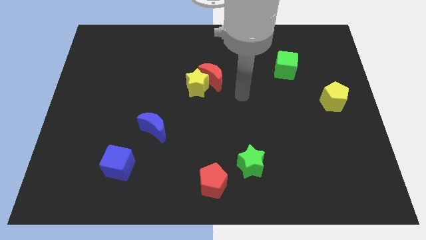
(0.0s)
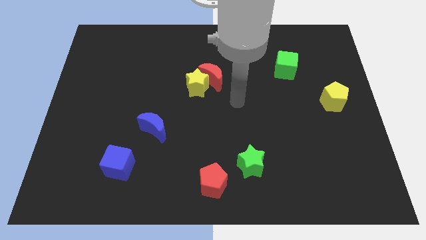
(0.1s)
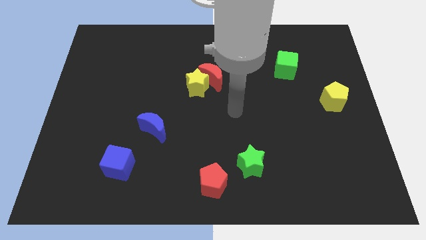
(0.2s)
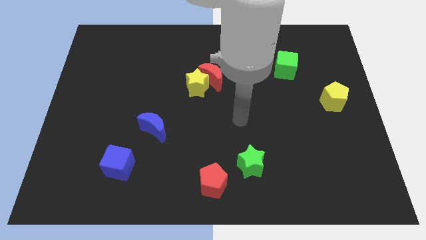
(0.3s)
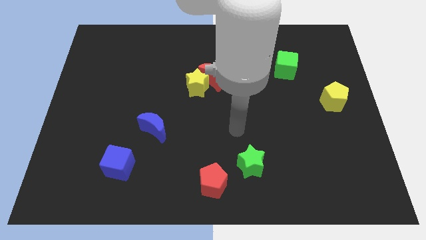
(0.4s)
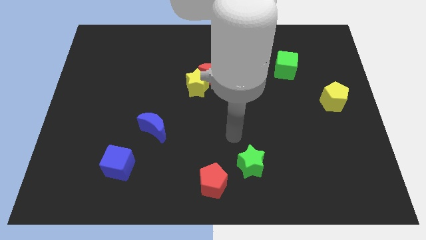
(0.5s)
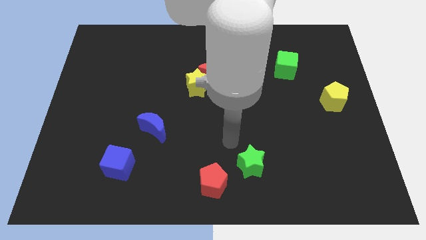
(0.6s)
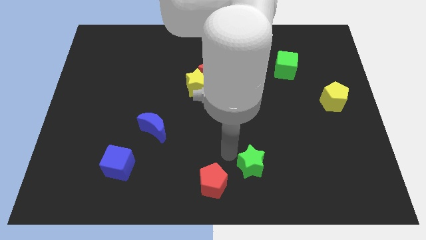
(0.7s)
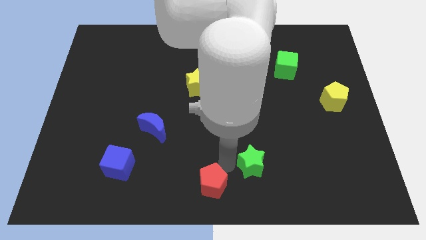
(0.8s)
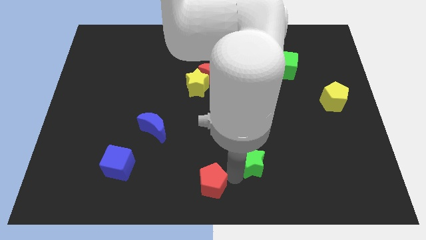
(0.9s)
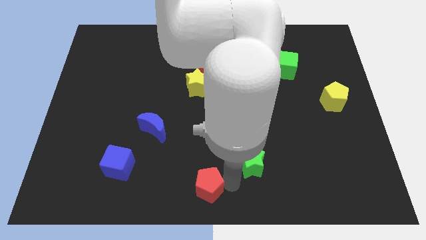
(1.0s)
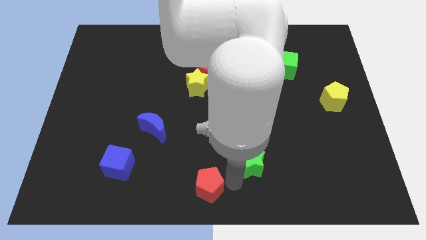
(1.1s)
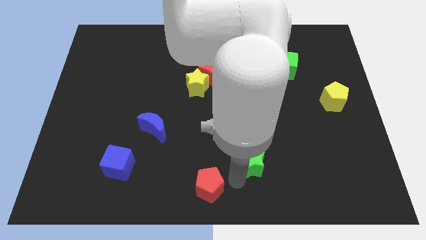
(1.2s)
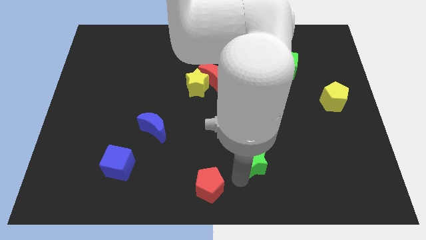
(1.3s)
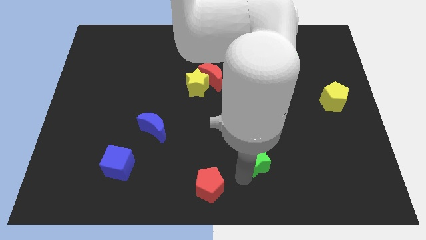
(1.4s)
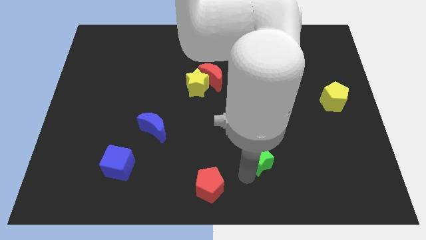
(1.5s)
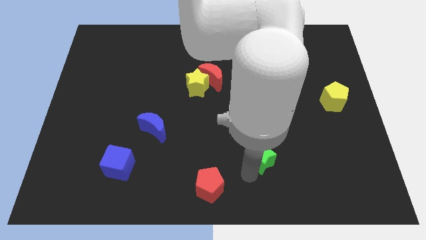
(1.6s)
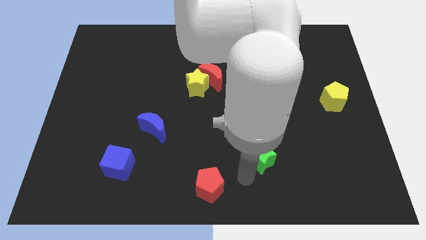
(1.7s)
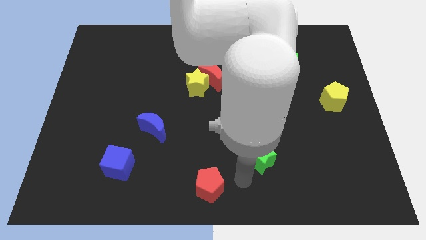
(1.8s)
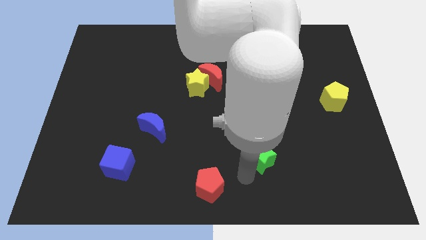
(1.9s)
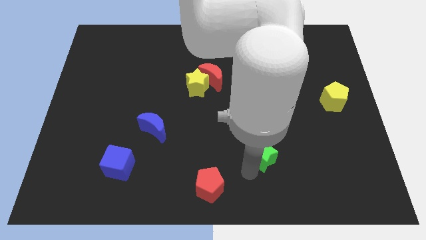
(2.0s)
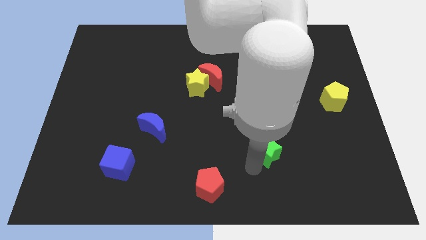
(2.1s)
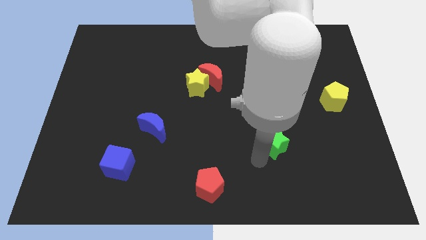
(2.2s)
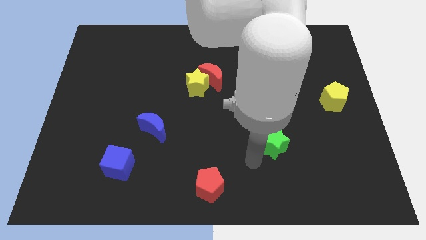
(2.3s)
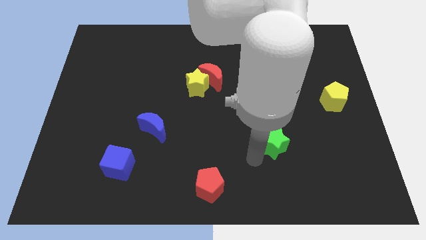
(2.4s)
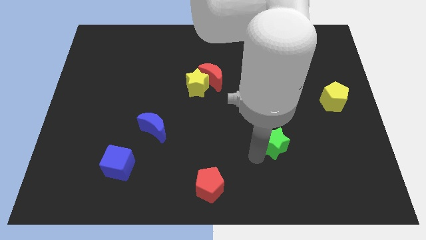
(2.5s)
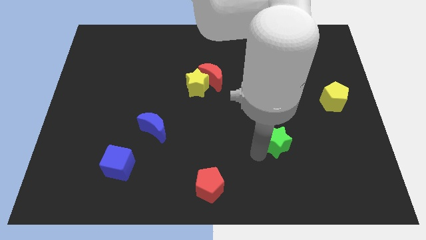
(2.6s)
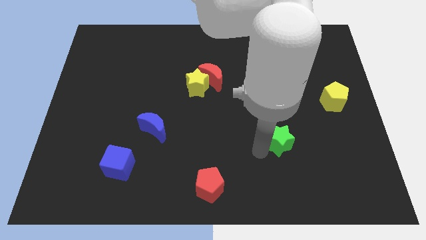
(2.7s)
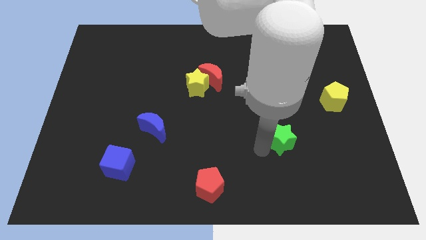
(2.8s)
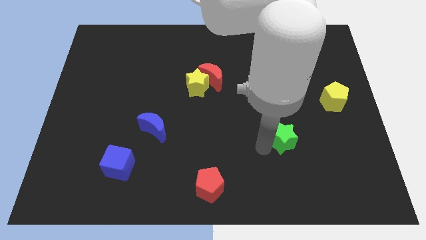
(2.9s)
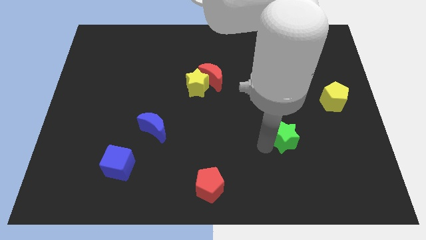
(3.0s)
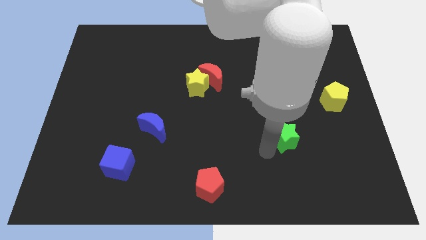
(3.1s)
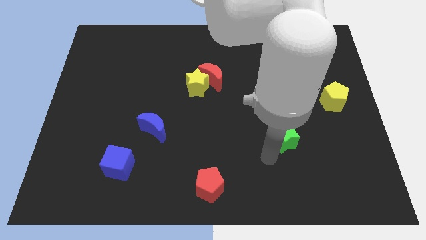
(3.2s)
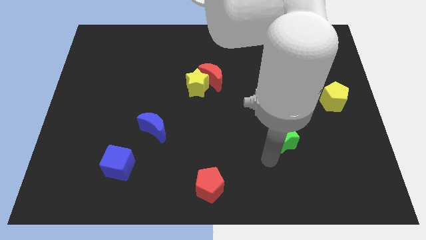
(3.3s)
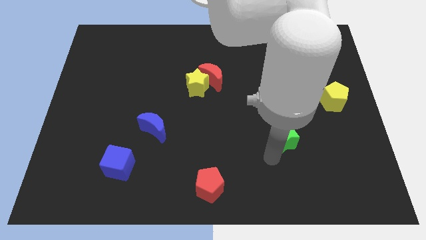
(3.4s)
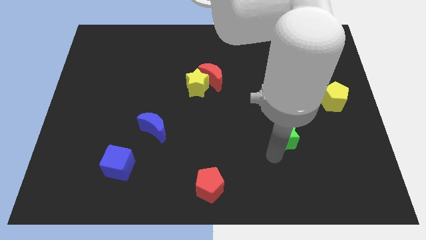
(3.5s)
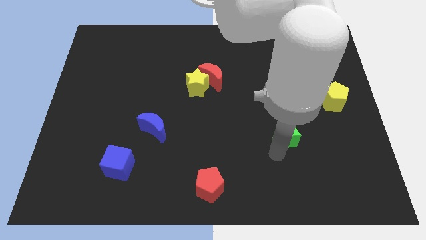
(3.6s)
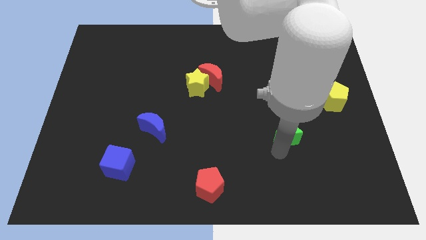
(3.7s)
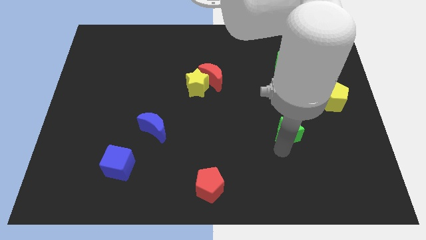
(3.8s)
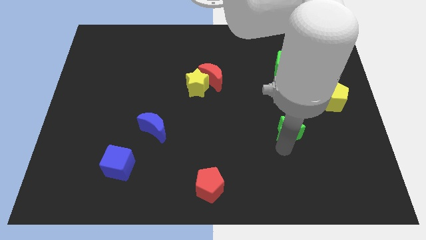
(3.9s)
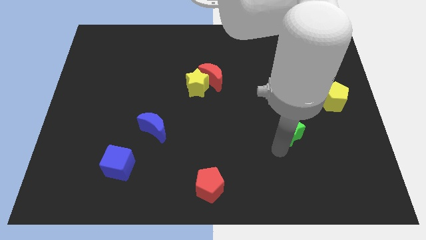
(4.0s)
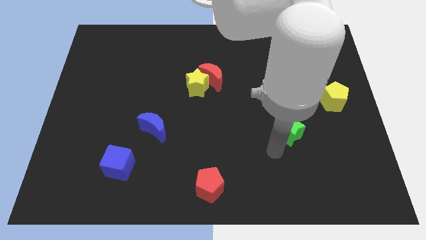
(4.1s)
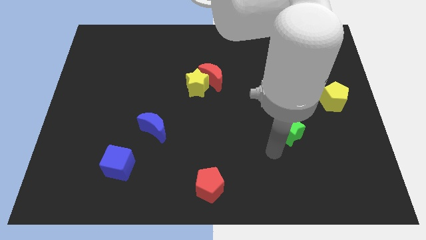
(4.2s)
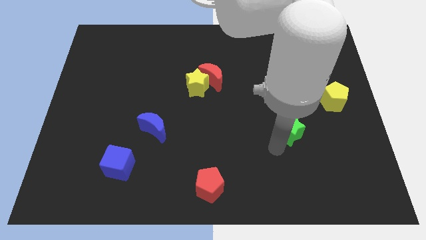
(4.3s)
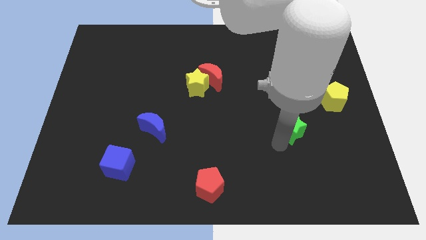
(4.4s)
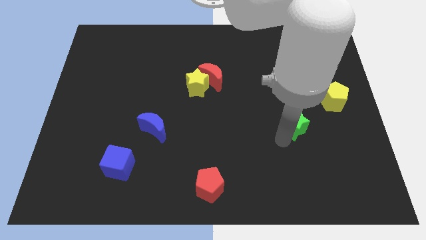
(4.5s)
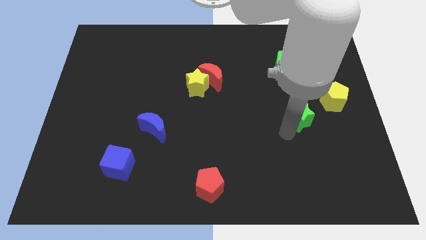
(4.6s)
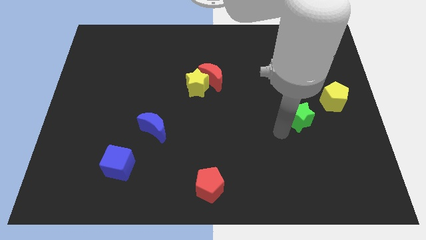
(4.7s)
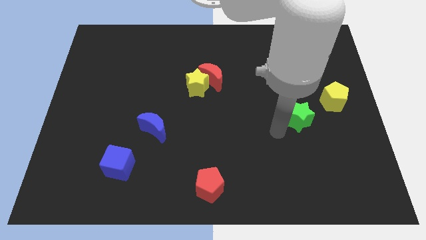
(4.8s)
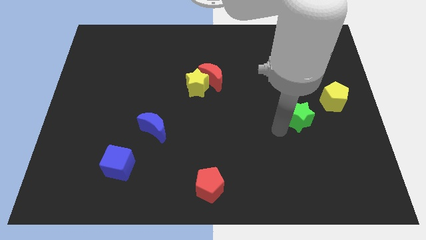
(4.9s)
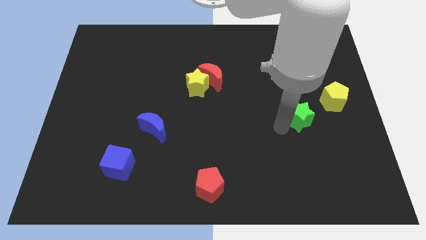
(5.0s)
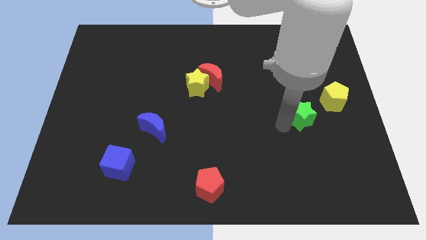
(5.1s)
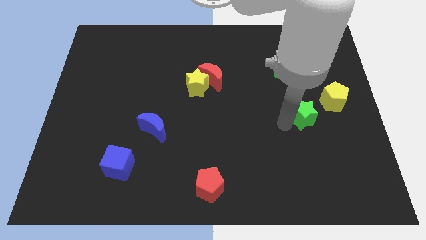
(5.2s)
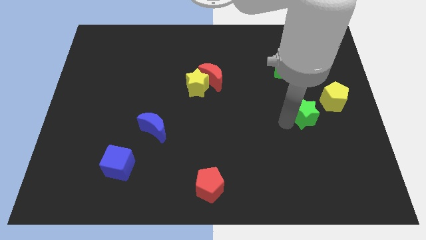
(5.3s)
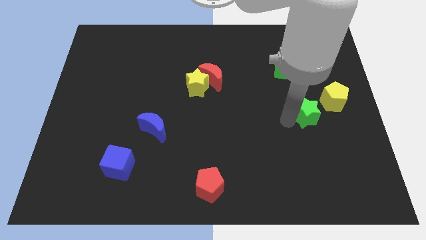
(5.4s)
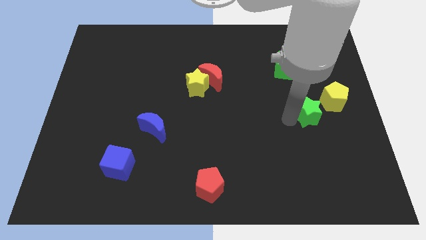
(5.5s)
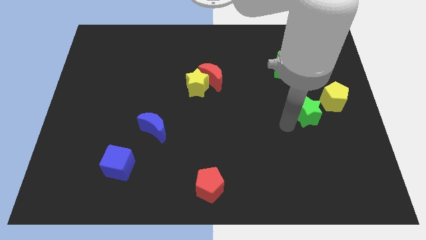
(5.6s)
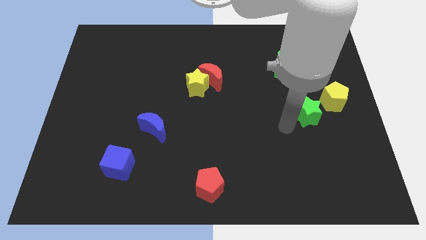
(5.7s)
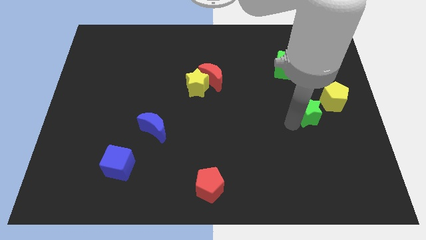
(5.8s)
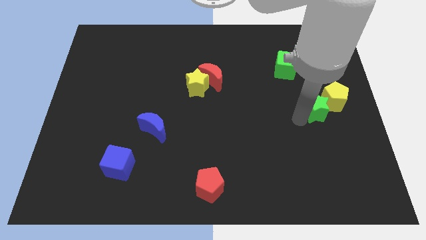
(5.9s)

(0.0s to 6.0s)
slide the green star close to the yellow pentagon

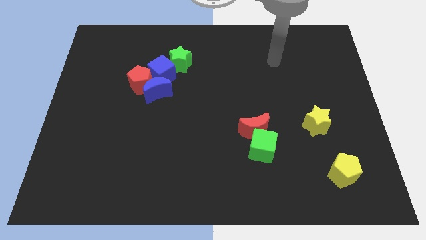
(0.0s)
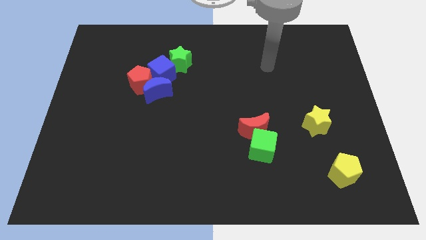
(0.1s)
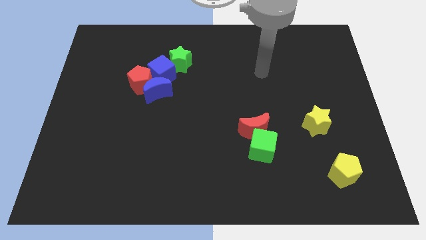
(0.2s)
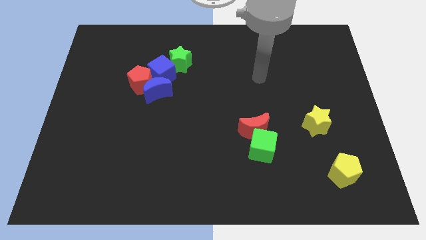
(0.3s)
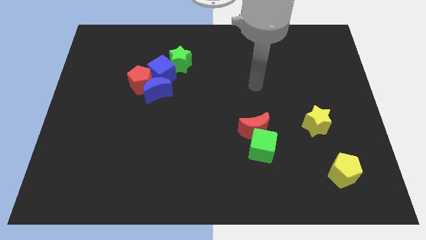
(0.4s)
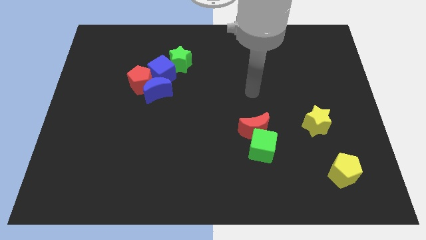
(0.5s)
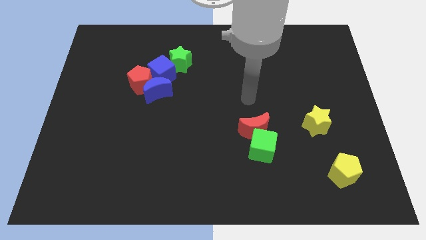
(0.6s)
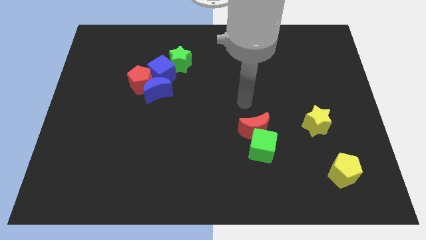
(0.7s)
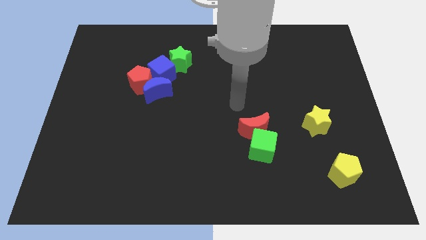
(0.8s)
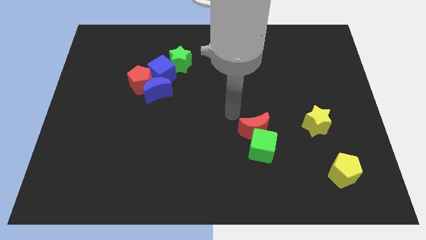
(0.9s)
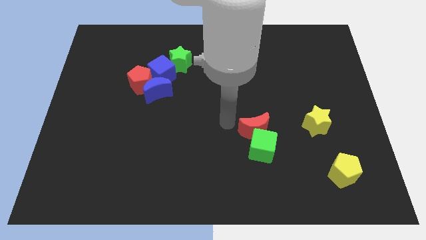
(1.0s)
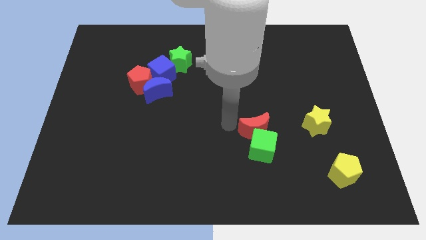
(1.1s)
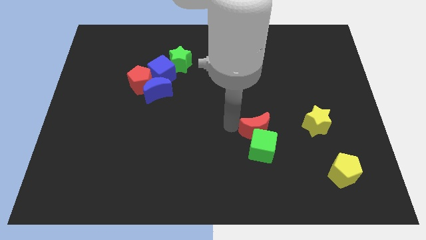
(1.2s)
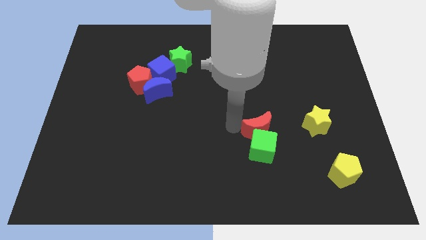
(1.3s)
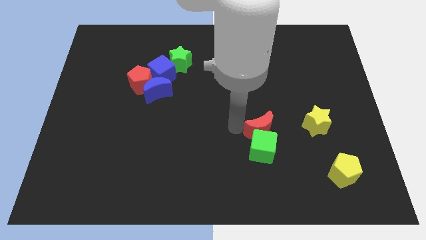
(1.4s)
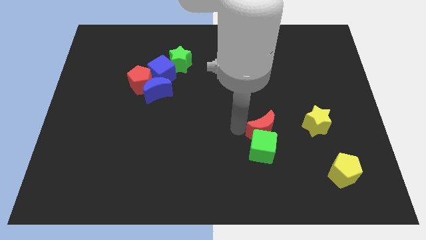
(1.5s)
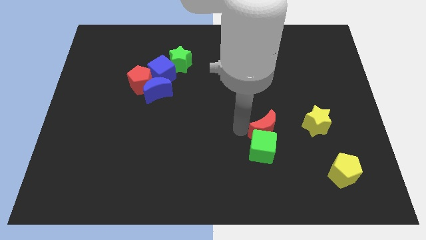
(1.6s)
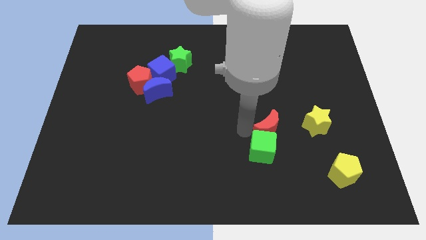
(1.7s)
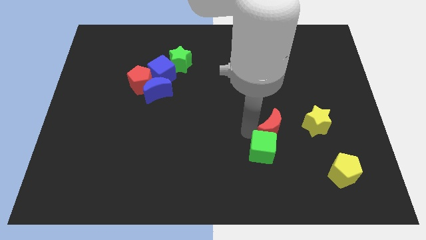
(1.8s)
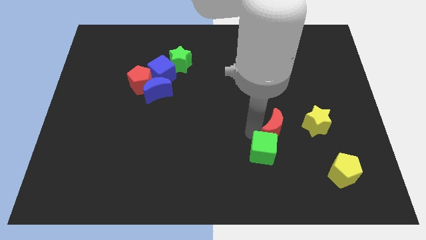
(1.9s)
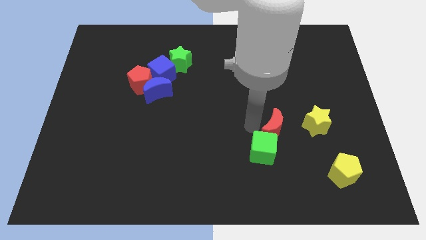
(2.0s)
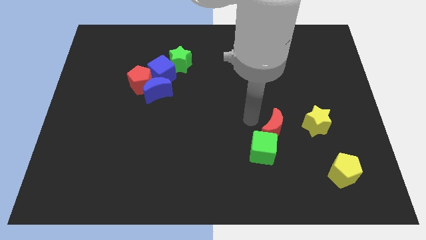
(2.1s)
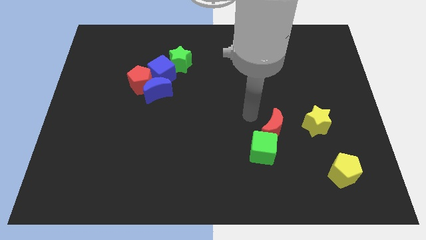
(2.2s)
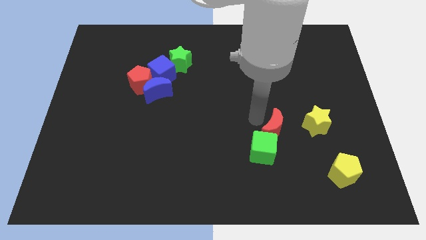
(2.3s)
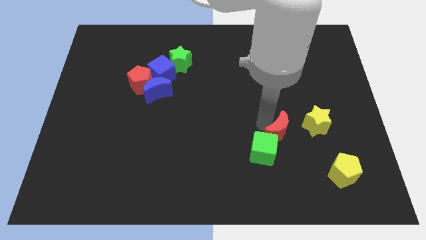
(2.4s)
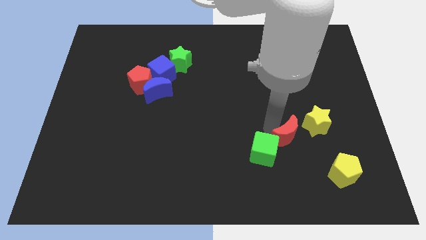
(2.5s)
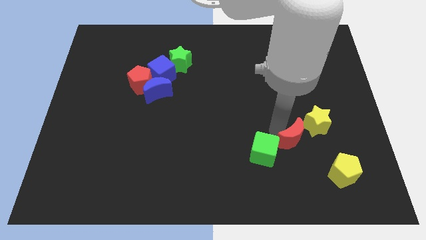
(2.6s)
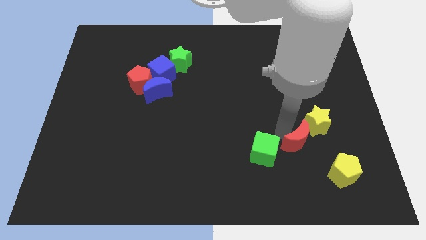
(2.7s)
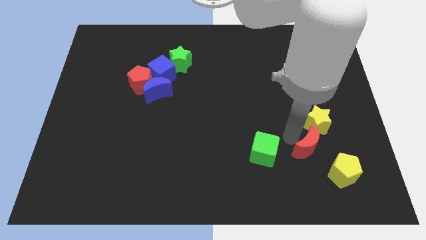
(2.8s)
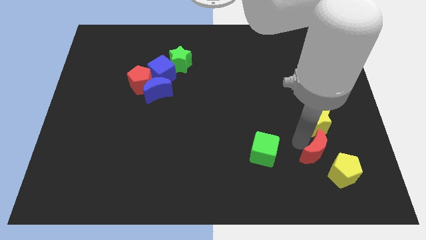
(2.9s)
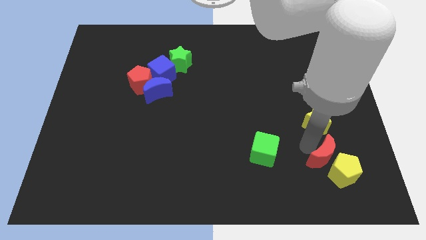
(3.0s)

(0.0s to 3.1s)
push the red moon towards the yellow pentagon
